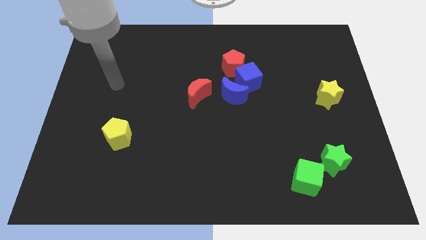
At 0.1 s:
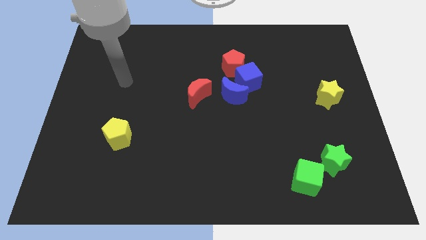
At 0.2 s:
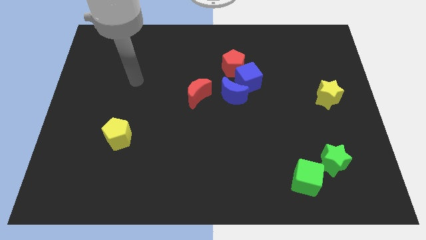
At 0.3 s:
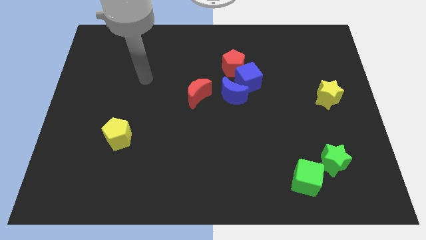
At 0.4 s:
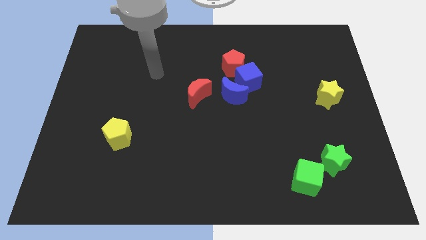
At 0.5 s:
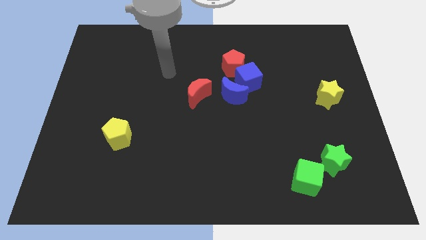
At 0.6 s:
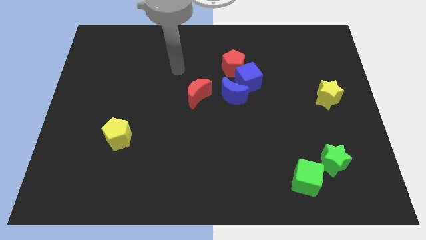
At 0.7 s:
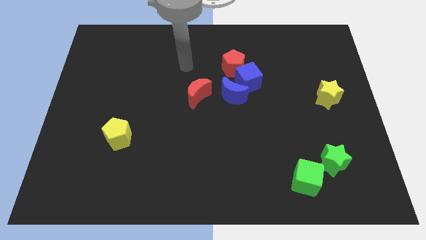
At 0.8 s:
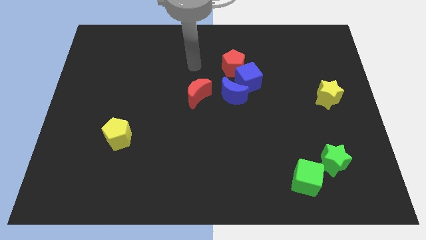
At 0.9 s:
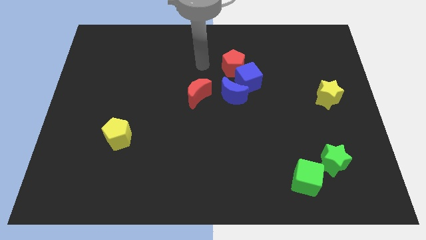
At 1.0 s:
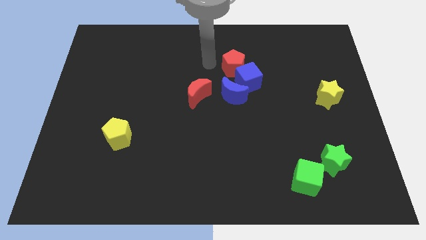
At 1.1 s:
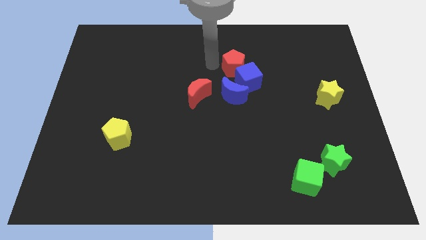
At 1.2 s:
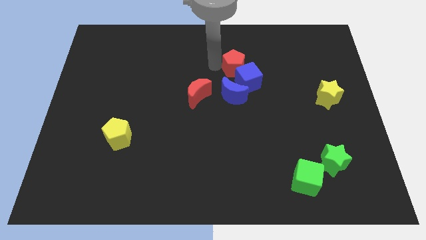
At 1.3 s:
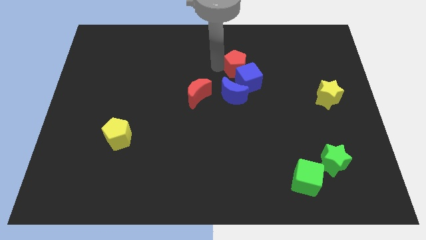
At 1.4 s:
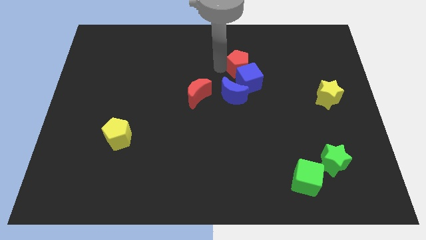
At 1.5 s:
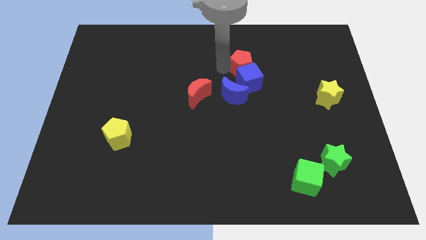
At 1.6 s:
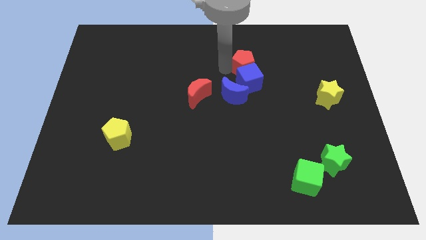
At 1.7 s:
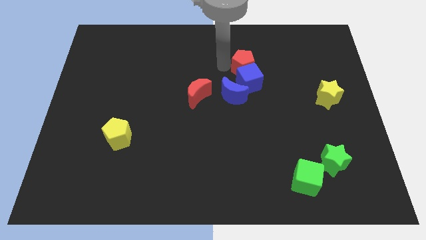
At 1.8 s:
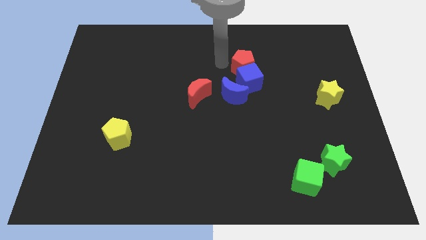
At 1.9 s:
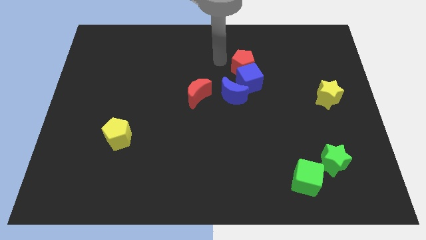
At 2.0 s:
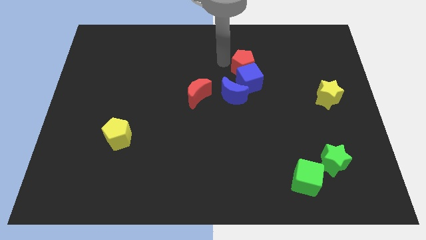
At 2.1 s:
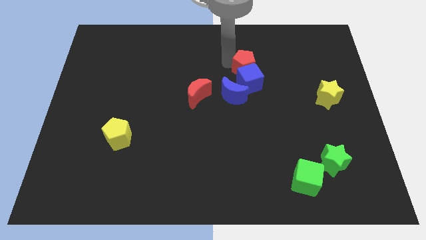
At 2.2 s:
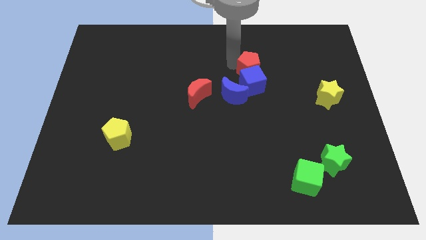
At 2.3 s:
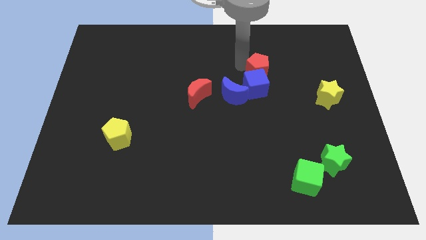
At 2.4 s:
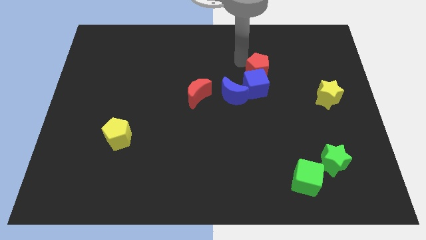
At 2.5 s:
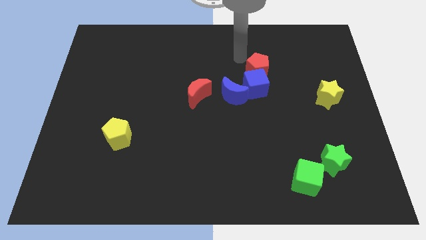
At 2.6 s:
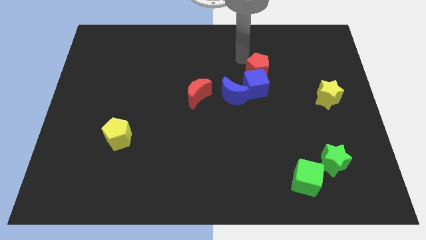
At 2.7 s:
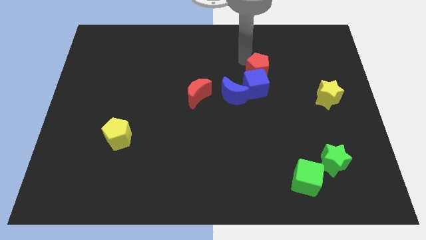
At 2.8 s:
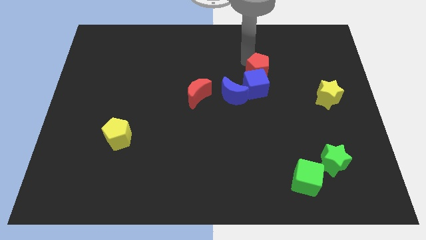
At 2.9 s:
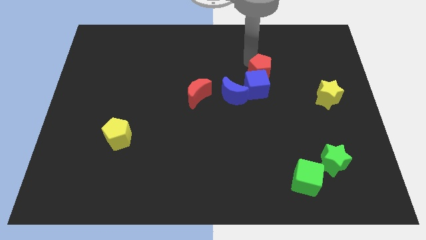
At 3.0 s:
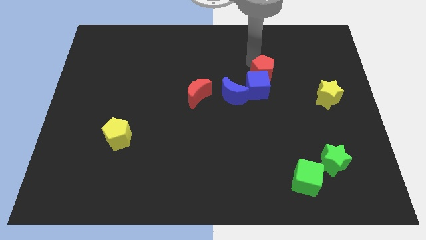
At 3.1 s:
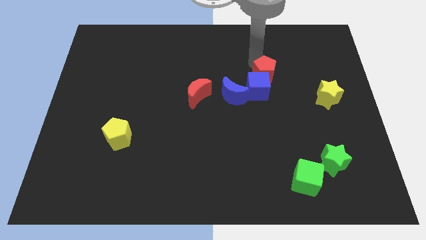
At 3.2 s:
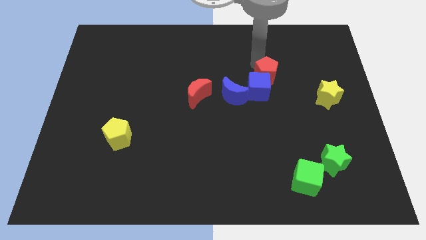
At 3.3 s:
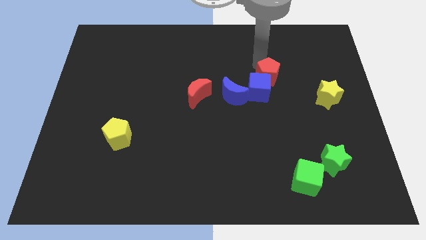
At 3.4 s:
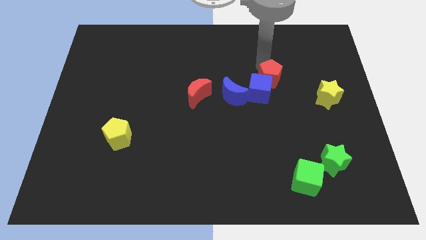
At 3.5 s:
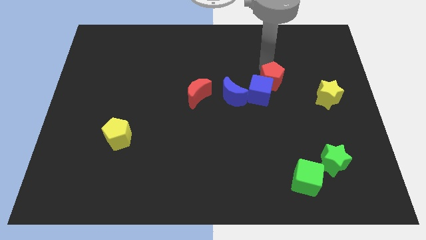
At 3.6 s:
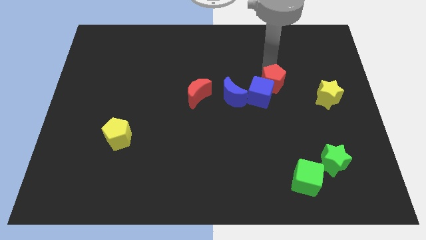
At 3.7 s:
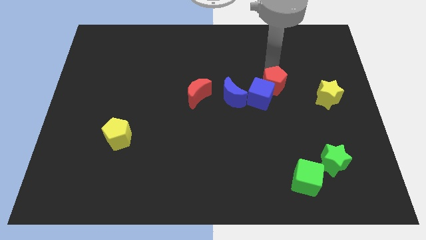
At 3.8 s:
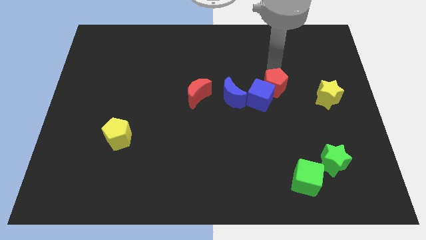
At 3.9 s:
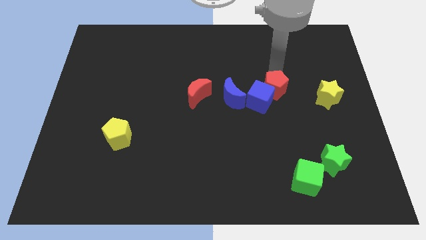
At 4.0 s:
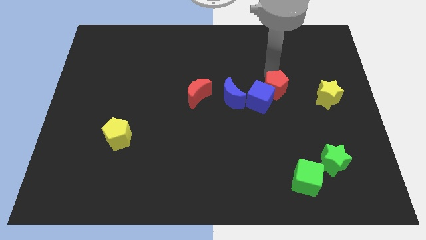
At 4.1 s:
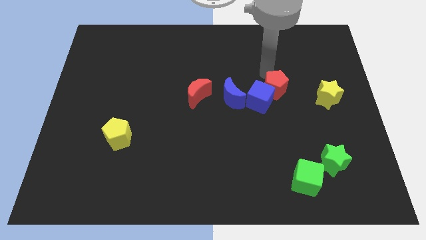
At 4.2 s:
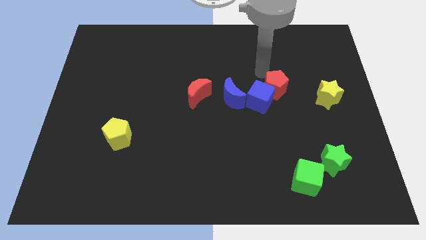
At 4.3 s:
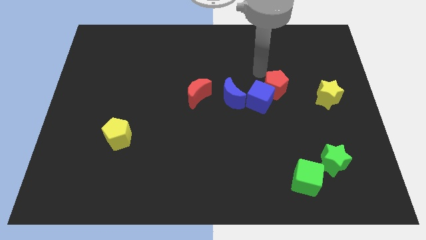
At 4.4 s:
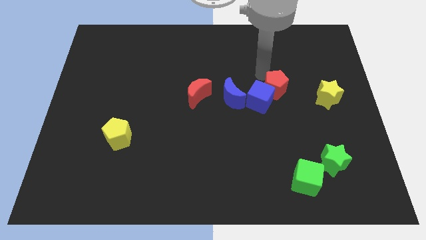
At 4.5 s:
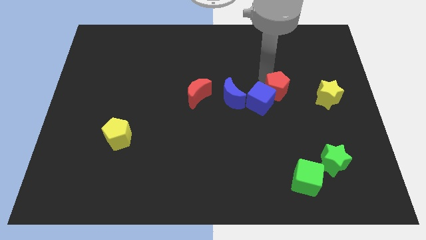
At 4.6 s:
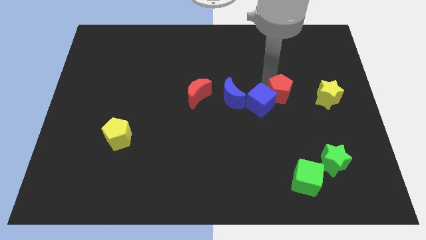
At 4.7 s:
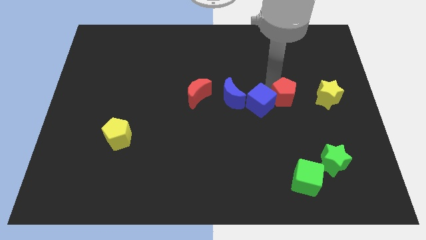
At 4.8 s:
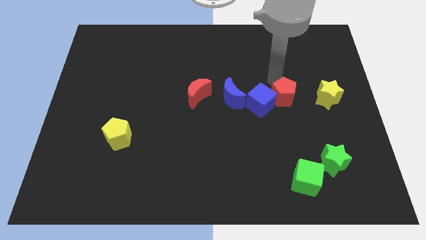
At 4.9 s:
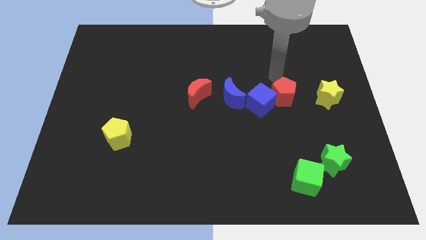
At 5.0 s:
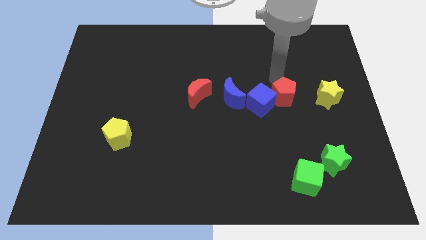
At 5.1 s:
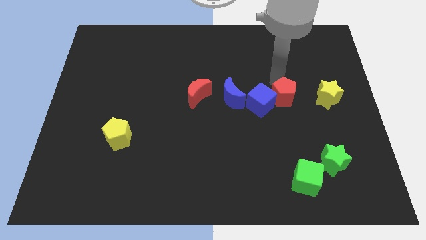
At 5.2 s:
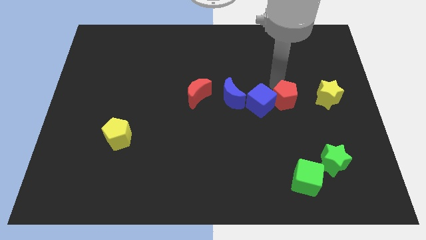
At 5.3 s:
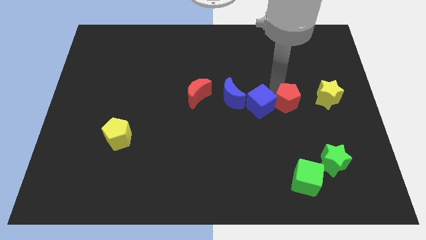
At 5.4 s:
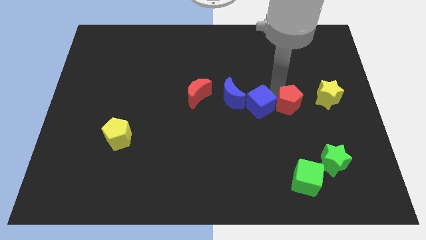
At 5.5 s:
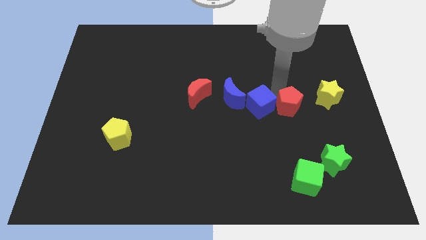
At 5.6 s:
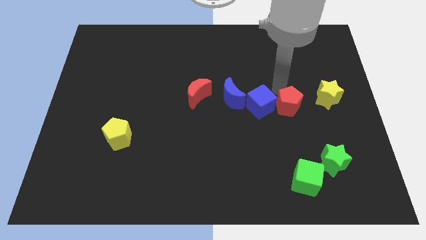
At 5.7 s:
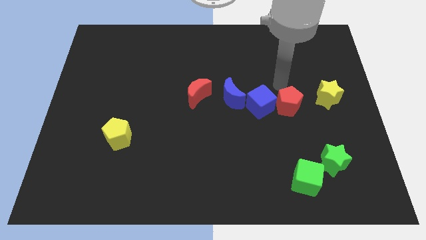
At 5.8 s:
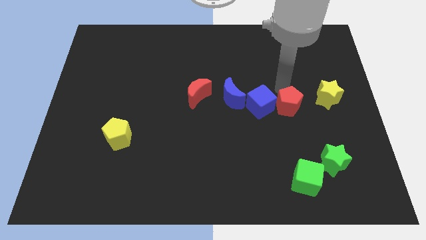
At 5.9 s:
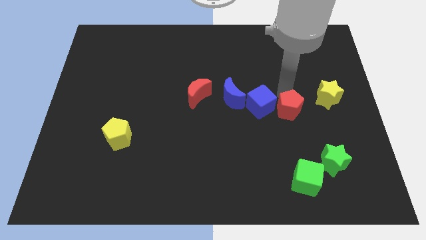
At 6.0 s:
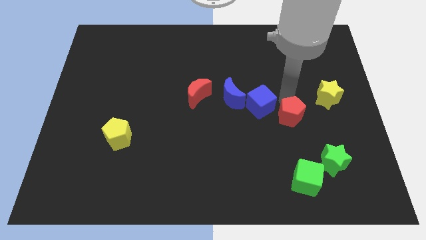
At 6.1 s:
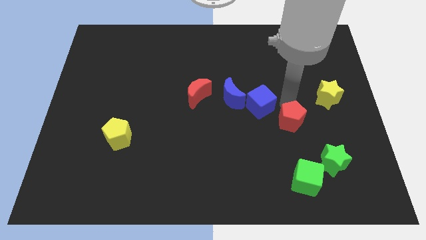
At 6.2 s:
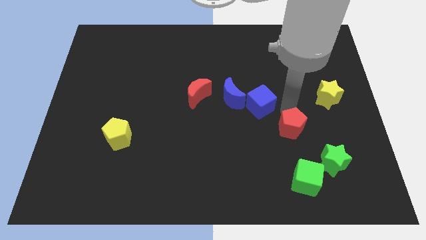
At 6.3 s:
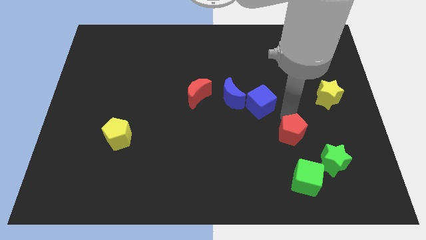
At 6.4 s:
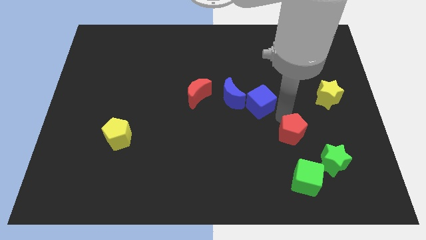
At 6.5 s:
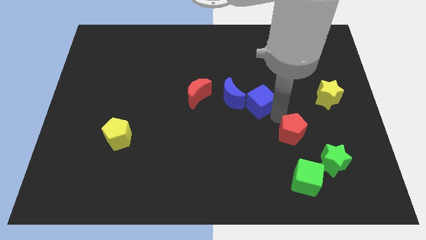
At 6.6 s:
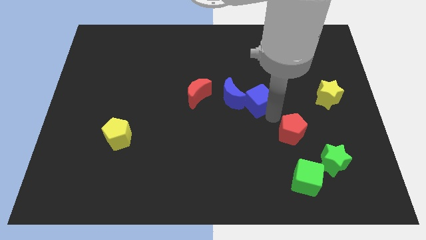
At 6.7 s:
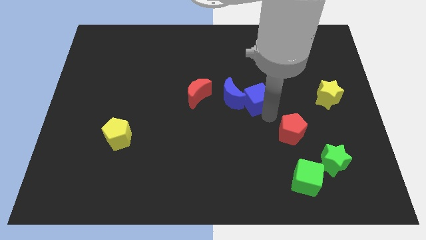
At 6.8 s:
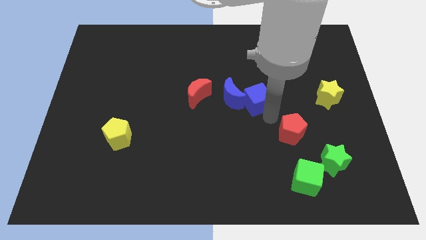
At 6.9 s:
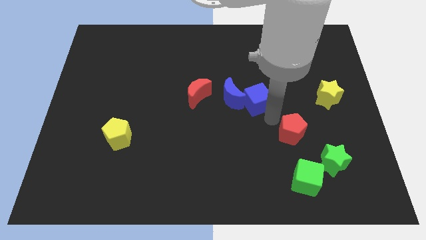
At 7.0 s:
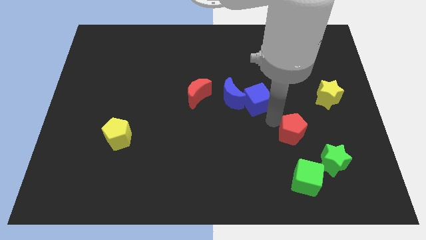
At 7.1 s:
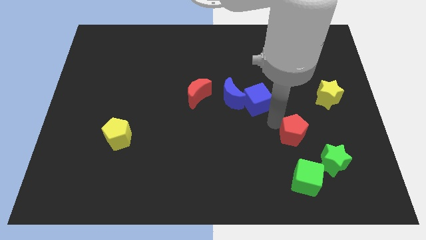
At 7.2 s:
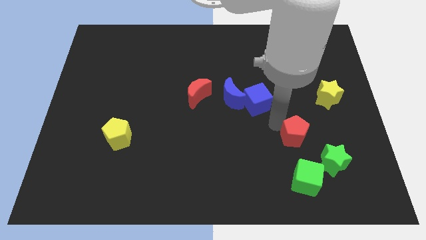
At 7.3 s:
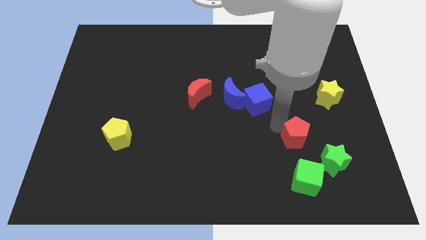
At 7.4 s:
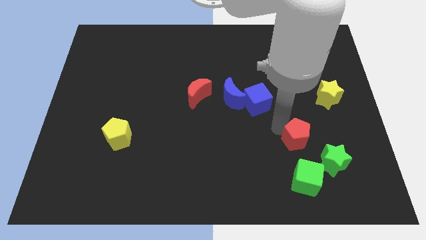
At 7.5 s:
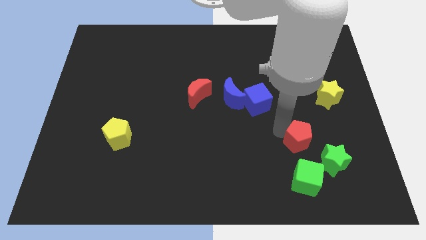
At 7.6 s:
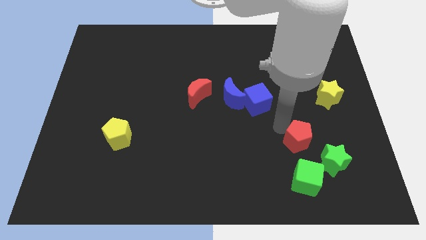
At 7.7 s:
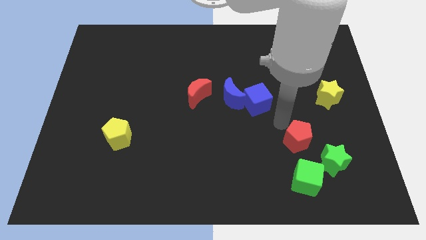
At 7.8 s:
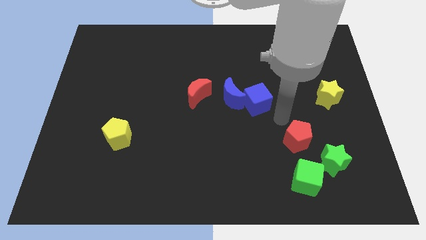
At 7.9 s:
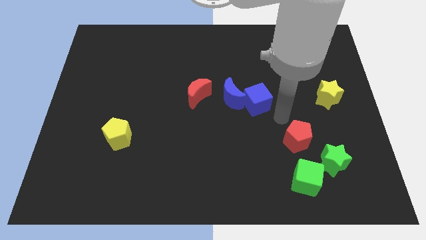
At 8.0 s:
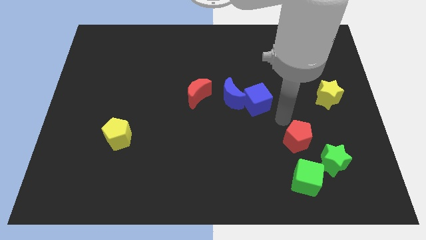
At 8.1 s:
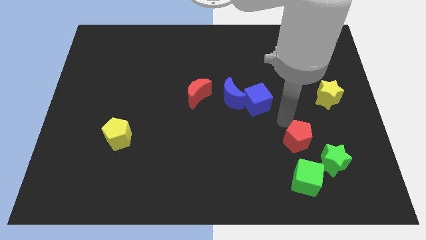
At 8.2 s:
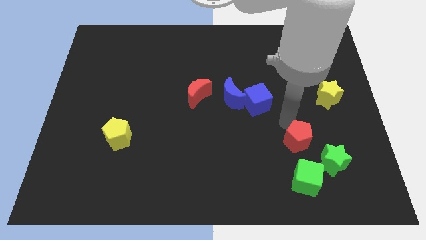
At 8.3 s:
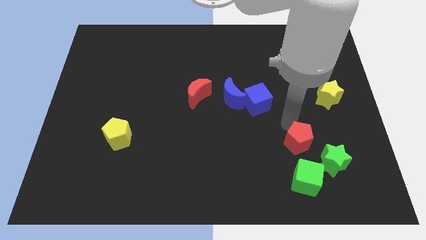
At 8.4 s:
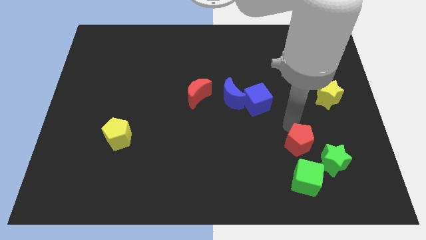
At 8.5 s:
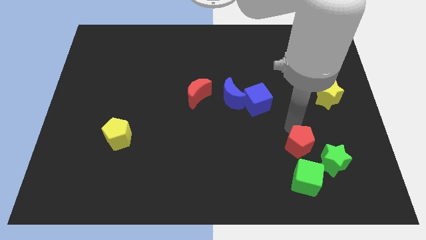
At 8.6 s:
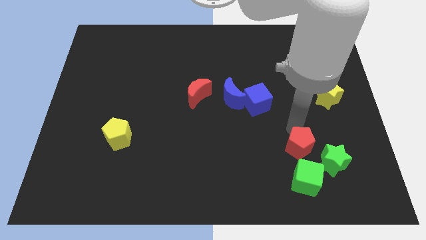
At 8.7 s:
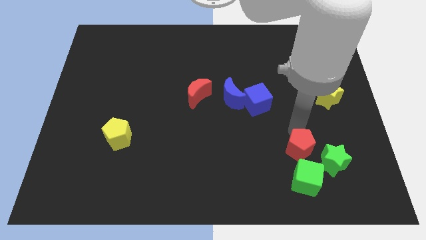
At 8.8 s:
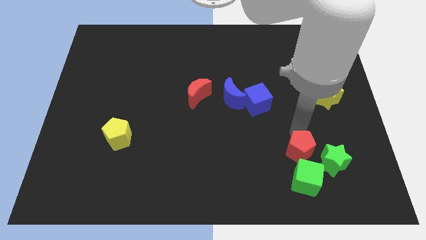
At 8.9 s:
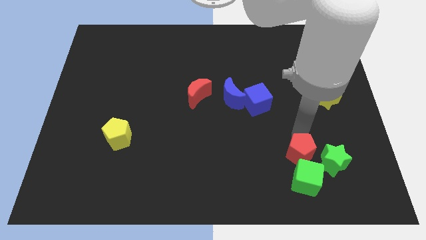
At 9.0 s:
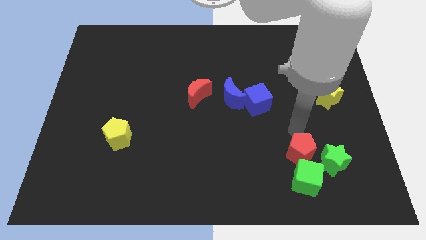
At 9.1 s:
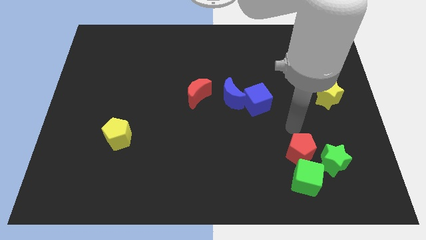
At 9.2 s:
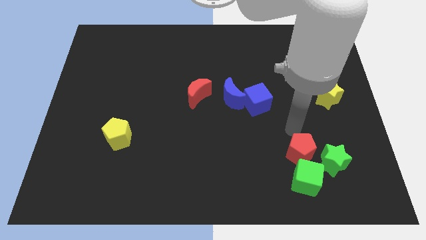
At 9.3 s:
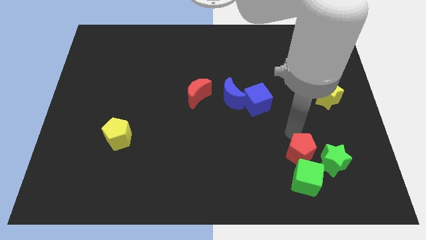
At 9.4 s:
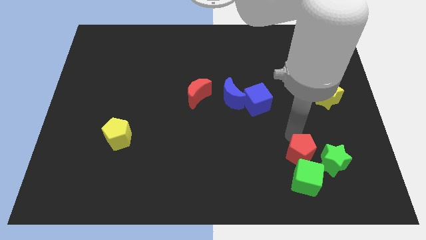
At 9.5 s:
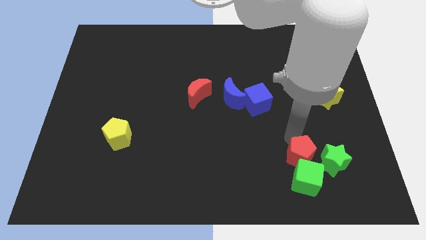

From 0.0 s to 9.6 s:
put the red pentagon towards the green cube
